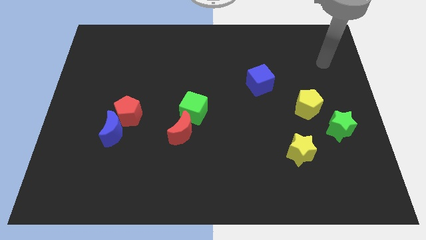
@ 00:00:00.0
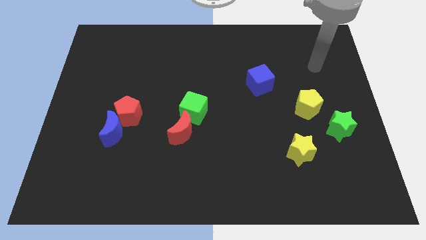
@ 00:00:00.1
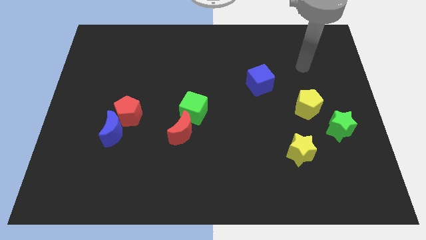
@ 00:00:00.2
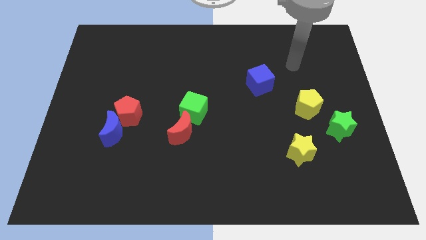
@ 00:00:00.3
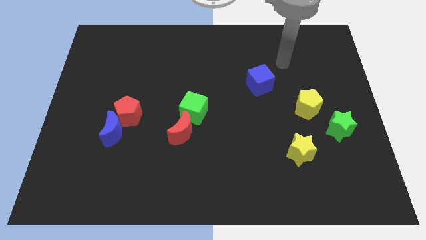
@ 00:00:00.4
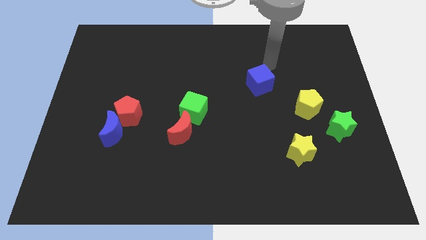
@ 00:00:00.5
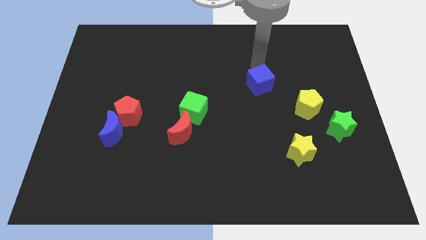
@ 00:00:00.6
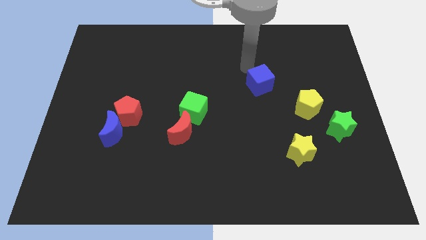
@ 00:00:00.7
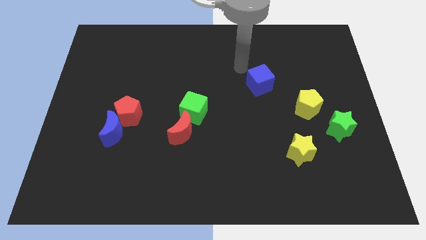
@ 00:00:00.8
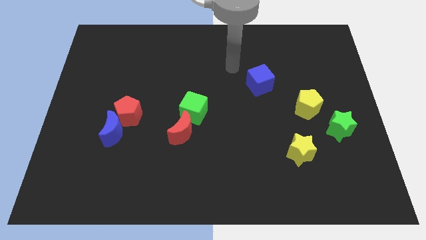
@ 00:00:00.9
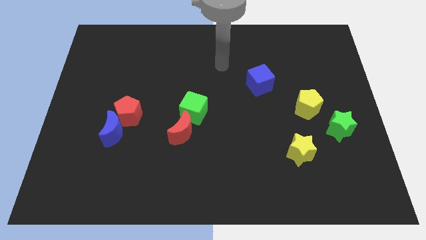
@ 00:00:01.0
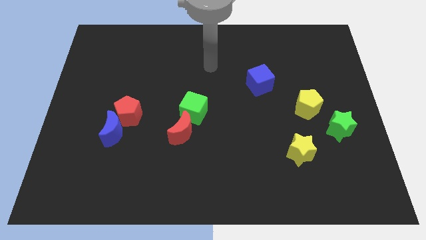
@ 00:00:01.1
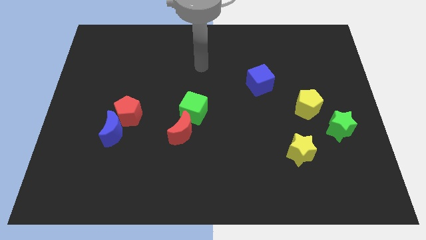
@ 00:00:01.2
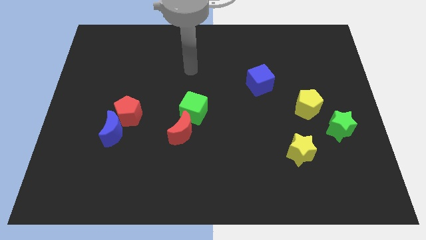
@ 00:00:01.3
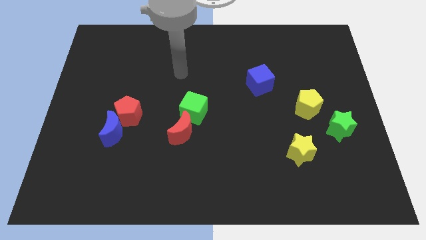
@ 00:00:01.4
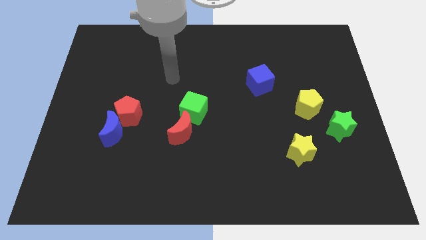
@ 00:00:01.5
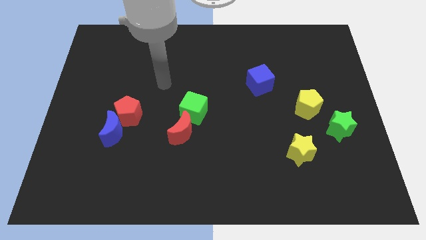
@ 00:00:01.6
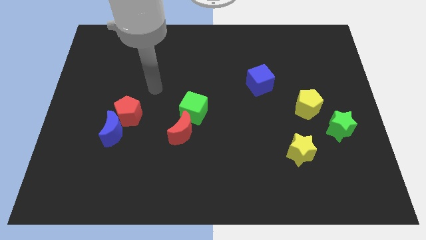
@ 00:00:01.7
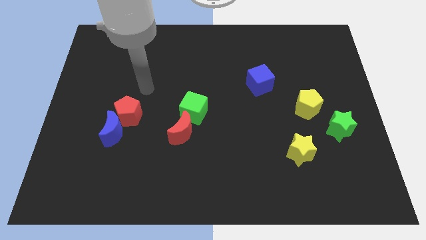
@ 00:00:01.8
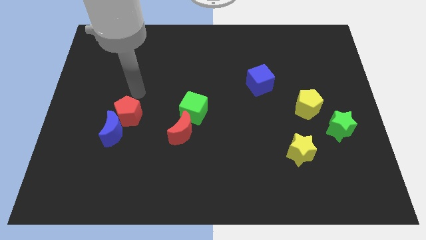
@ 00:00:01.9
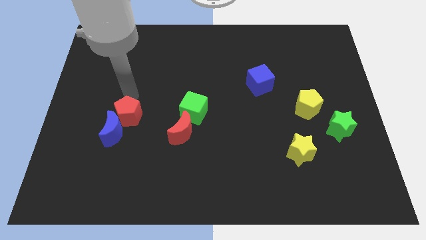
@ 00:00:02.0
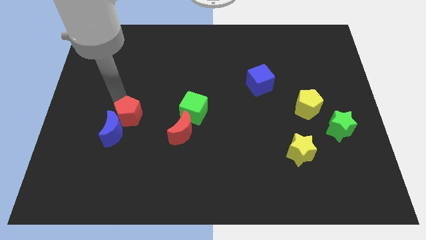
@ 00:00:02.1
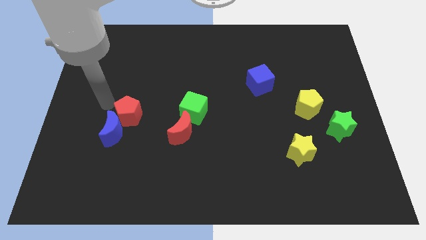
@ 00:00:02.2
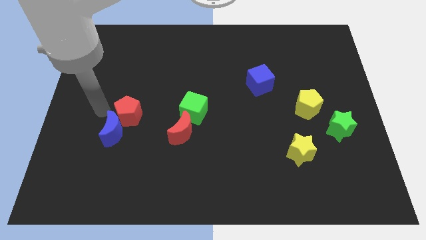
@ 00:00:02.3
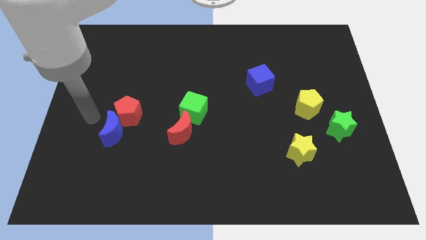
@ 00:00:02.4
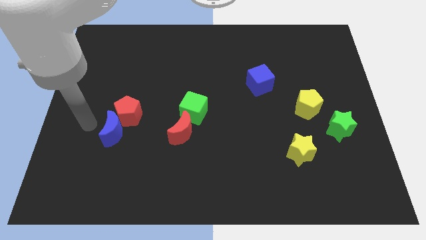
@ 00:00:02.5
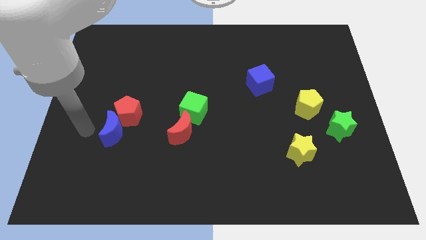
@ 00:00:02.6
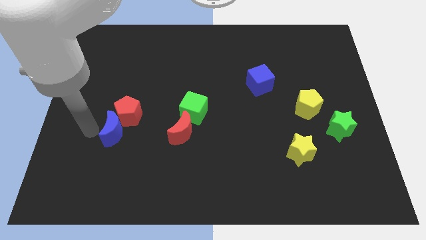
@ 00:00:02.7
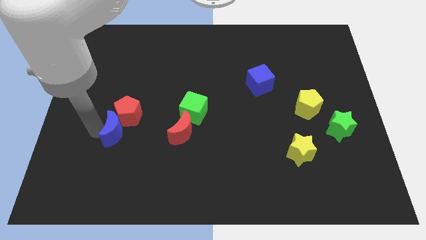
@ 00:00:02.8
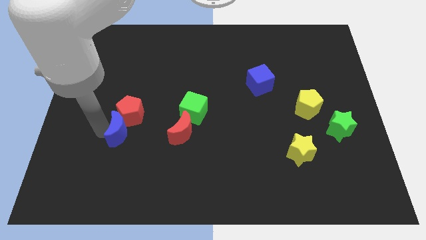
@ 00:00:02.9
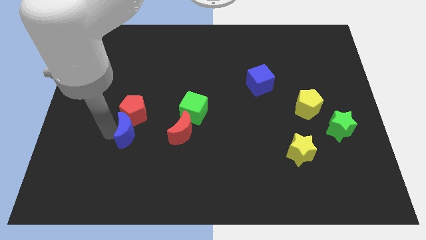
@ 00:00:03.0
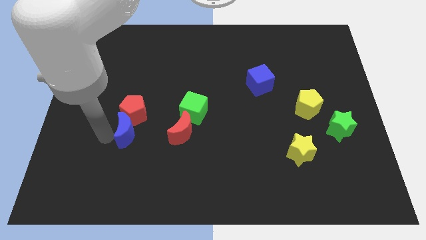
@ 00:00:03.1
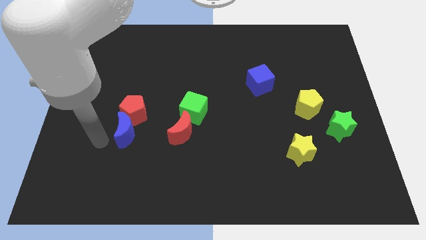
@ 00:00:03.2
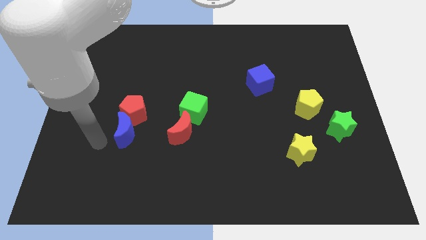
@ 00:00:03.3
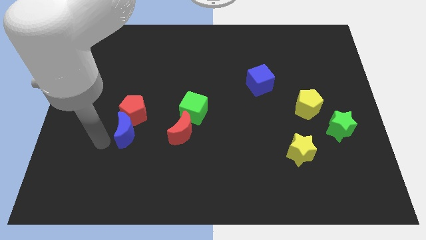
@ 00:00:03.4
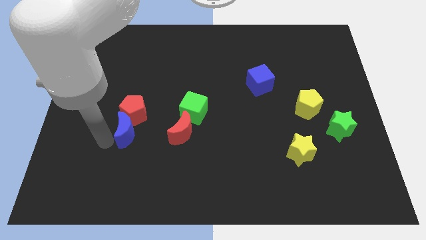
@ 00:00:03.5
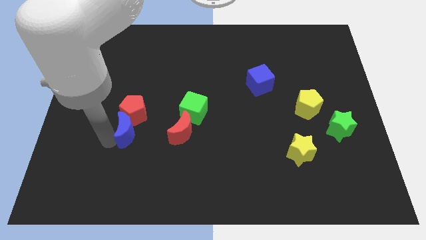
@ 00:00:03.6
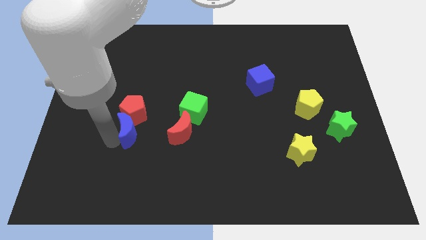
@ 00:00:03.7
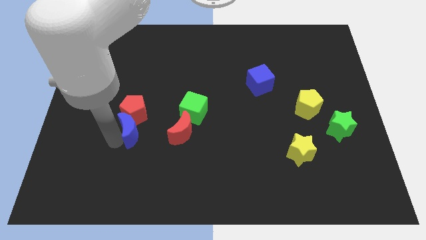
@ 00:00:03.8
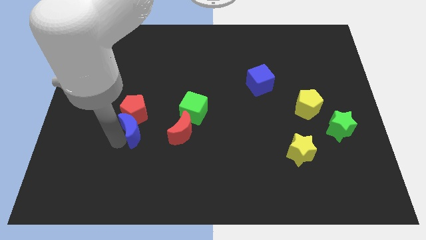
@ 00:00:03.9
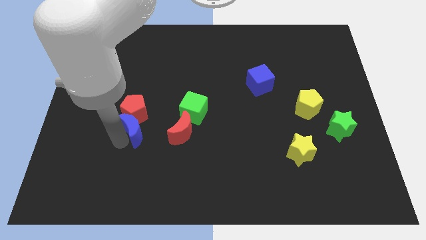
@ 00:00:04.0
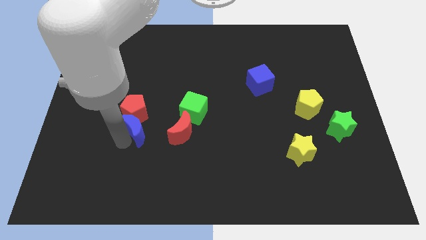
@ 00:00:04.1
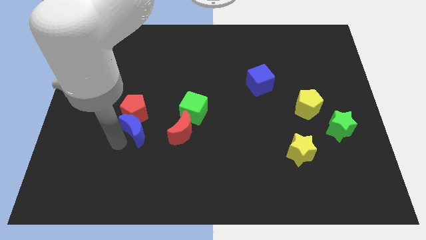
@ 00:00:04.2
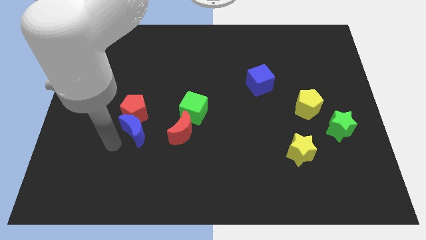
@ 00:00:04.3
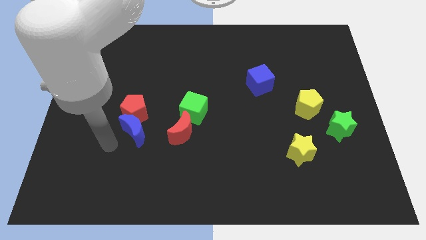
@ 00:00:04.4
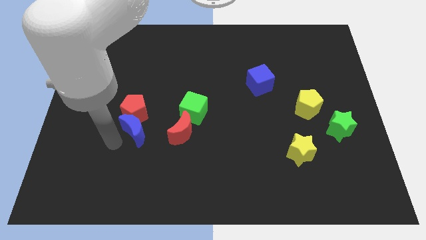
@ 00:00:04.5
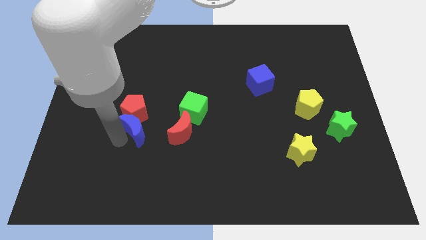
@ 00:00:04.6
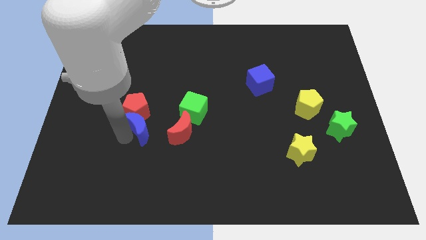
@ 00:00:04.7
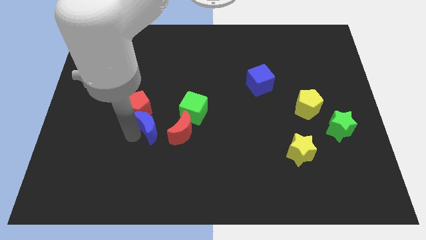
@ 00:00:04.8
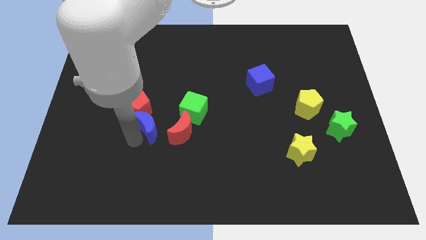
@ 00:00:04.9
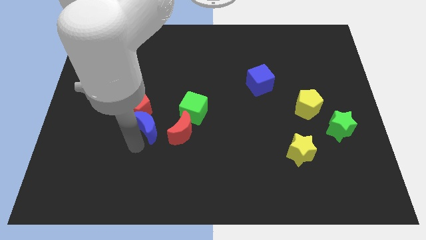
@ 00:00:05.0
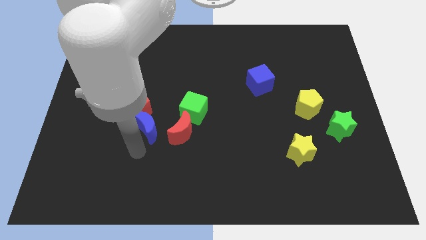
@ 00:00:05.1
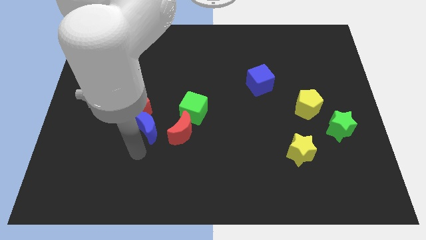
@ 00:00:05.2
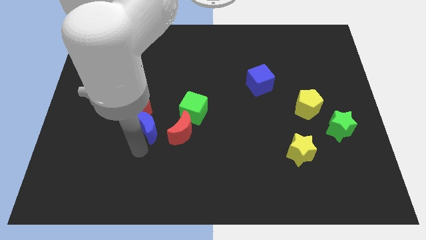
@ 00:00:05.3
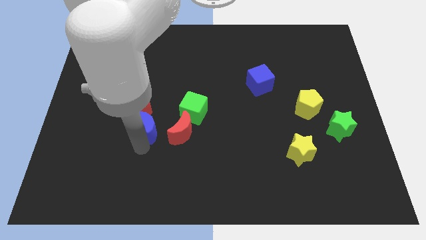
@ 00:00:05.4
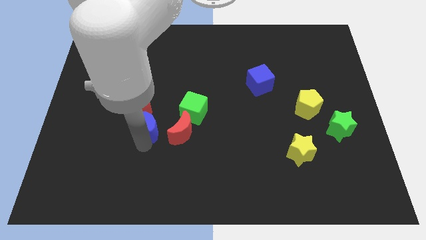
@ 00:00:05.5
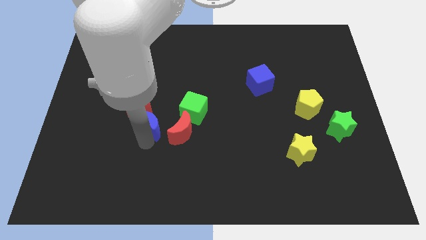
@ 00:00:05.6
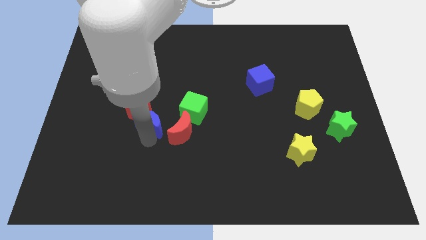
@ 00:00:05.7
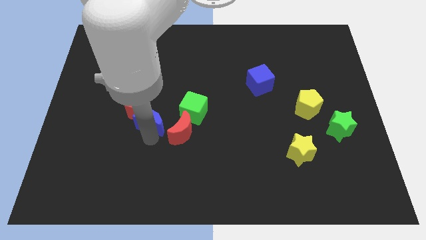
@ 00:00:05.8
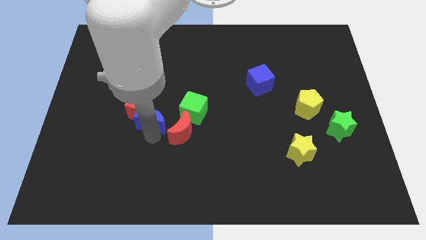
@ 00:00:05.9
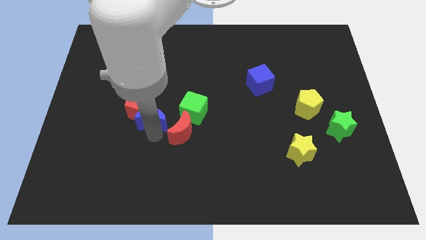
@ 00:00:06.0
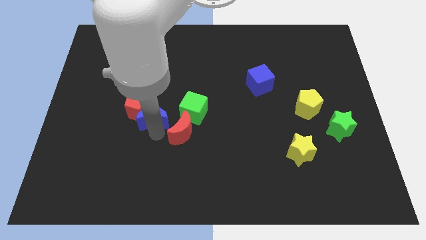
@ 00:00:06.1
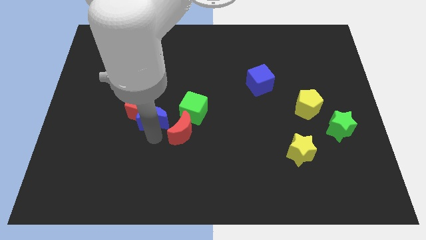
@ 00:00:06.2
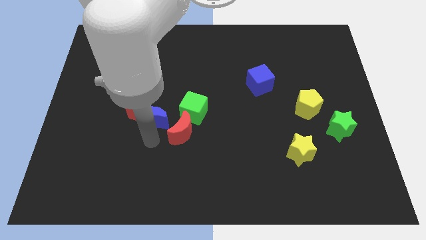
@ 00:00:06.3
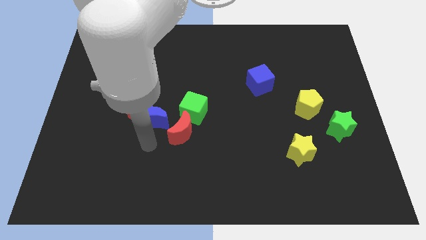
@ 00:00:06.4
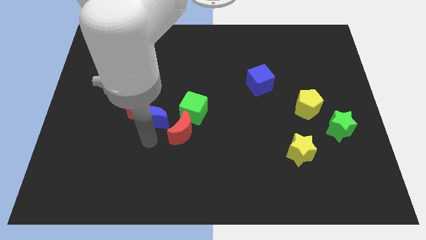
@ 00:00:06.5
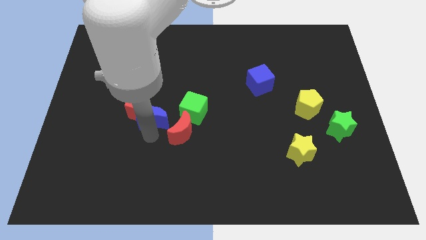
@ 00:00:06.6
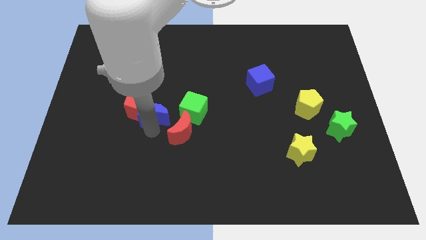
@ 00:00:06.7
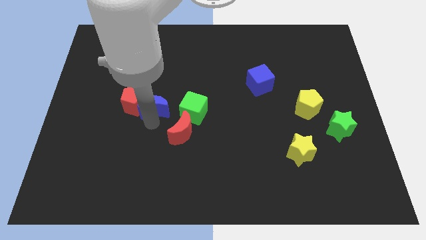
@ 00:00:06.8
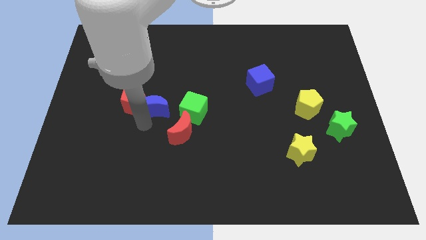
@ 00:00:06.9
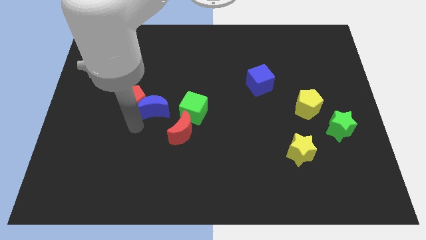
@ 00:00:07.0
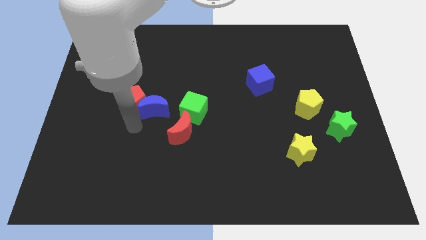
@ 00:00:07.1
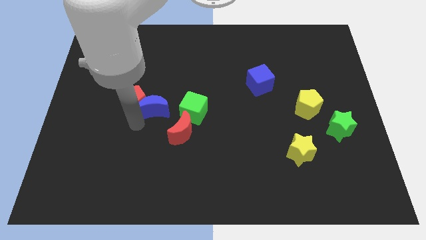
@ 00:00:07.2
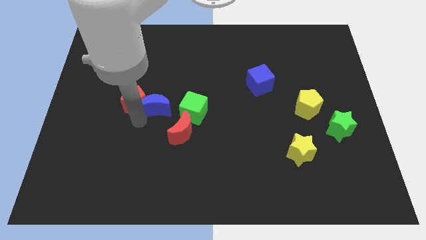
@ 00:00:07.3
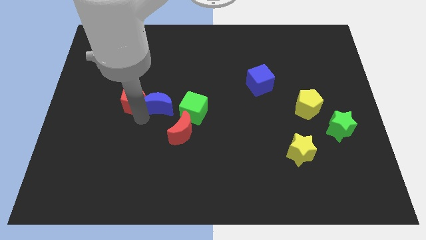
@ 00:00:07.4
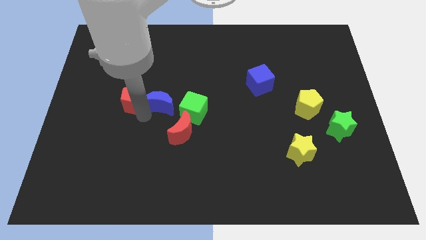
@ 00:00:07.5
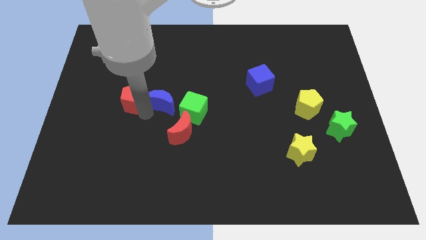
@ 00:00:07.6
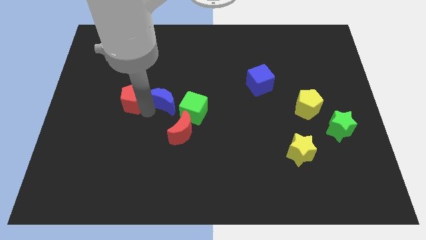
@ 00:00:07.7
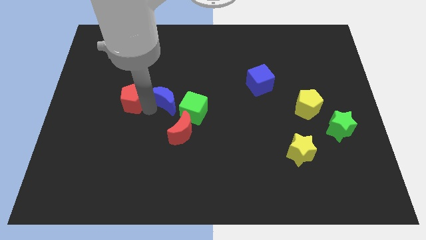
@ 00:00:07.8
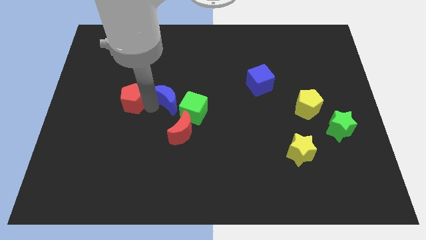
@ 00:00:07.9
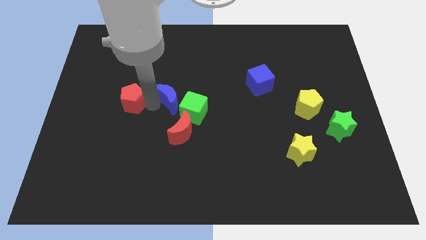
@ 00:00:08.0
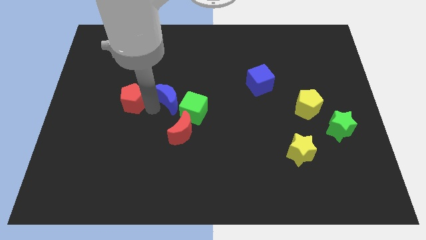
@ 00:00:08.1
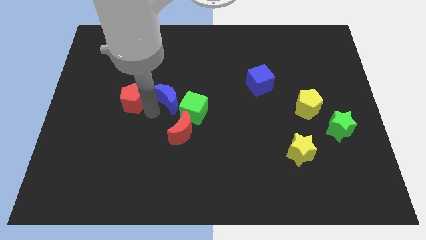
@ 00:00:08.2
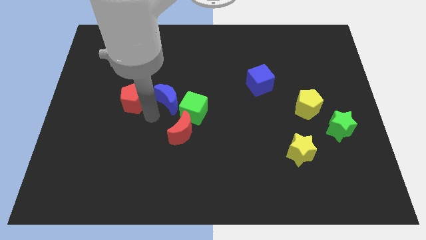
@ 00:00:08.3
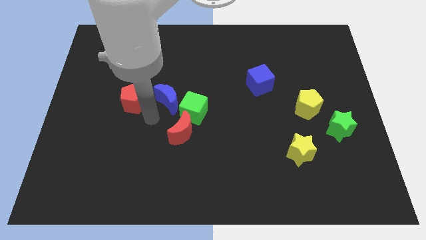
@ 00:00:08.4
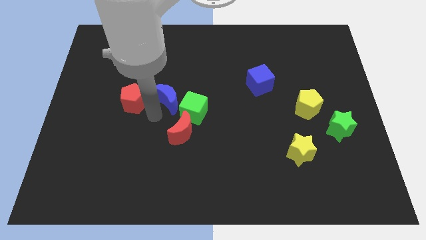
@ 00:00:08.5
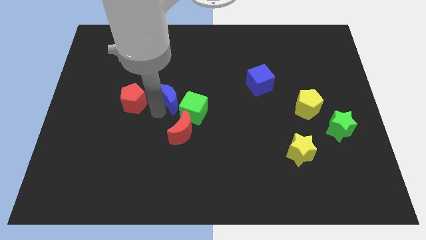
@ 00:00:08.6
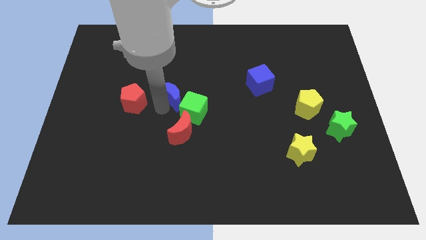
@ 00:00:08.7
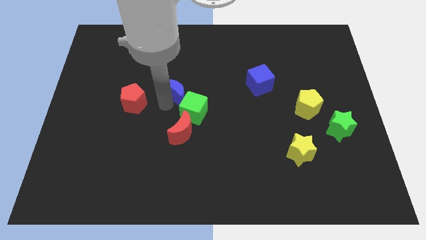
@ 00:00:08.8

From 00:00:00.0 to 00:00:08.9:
put the blue moon above the green cube
